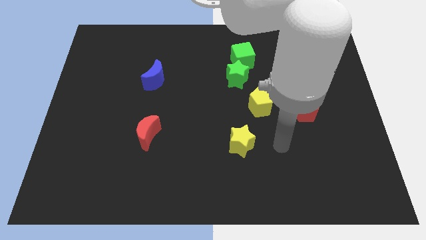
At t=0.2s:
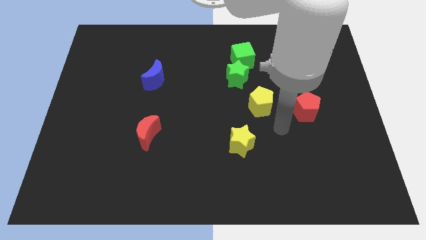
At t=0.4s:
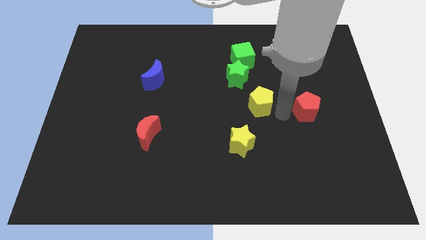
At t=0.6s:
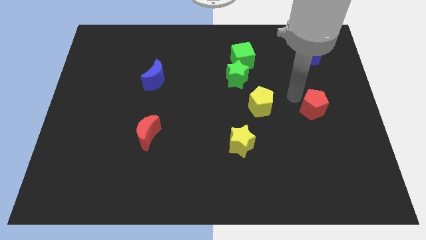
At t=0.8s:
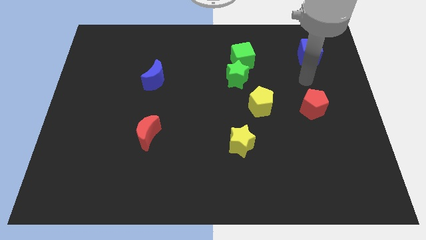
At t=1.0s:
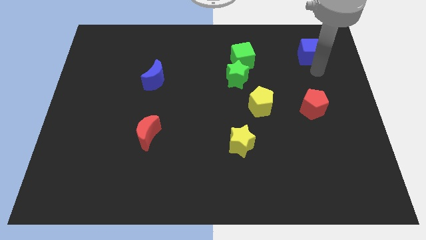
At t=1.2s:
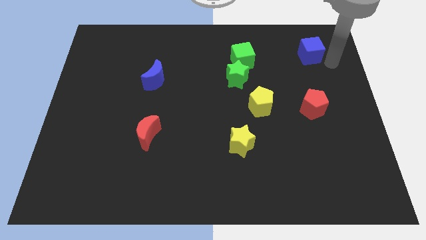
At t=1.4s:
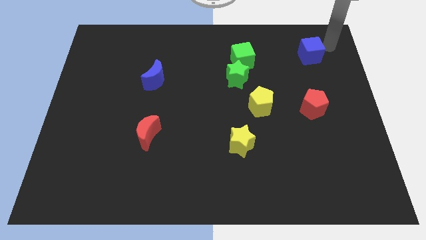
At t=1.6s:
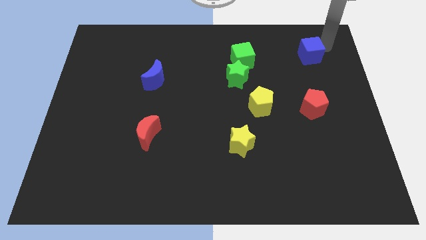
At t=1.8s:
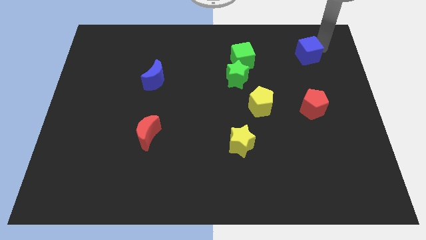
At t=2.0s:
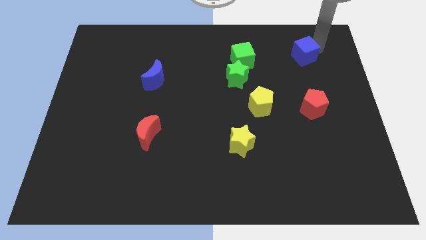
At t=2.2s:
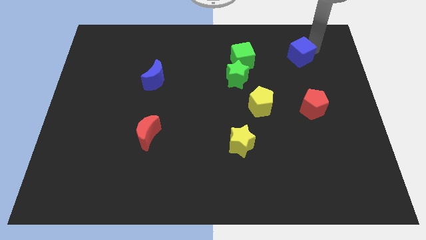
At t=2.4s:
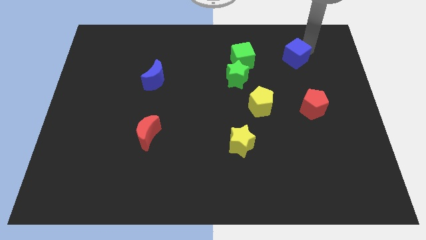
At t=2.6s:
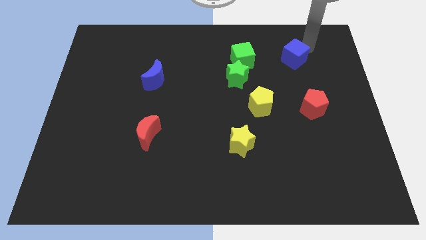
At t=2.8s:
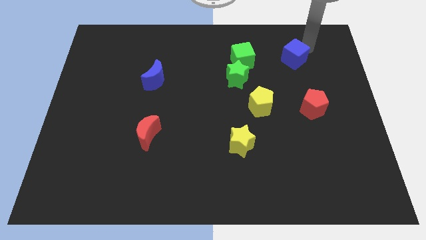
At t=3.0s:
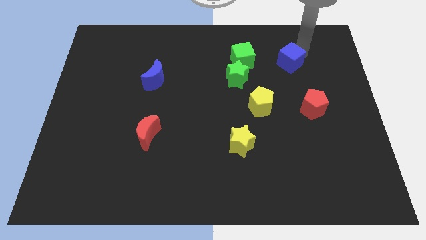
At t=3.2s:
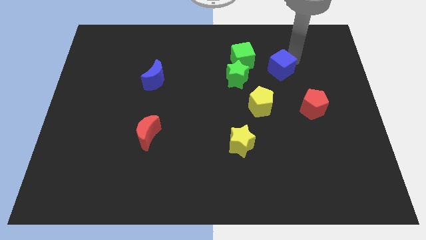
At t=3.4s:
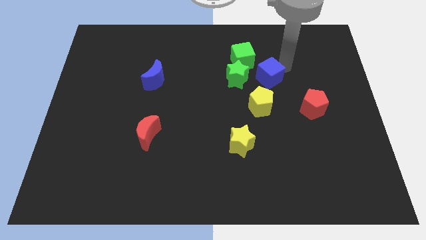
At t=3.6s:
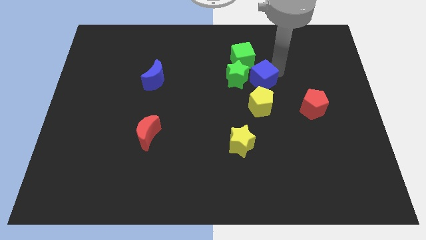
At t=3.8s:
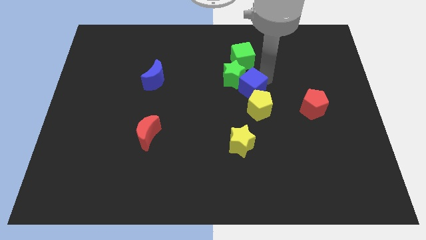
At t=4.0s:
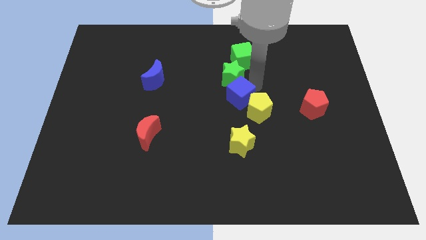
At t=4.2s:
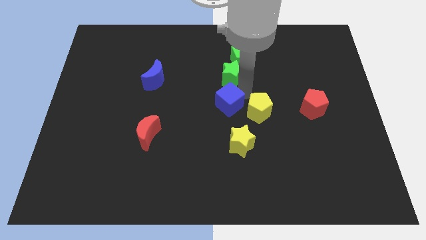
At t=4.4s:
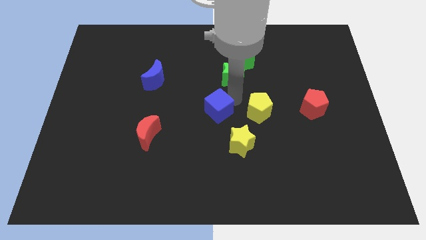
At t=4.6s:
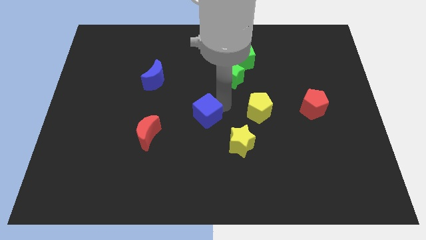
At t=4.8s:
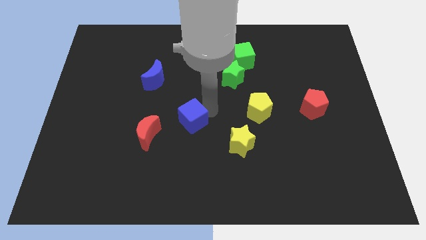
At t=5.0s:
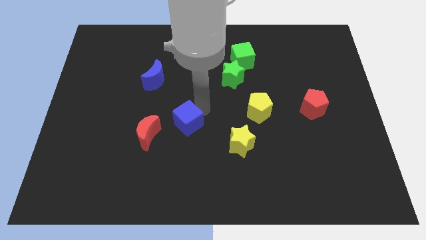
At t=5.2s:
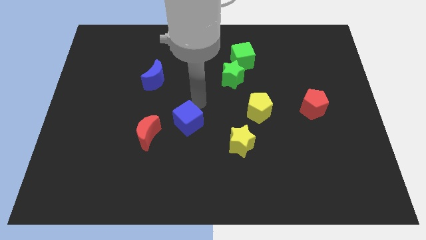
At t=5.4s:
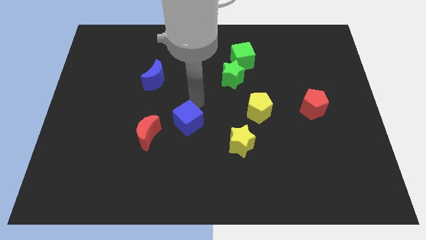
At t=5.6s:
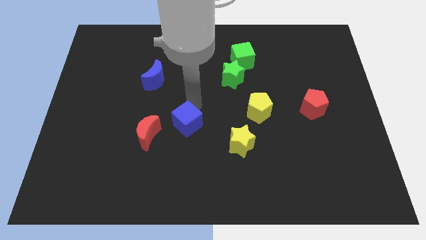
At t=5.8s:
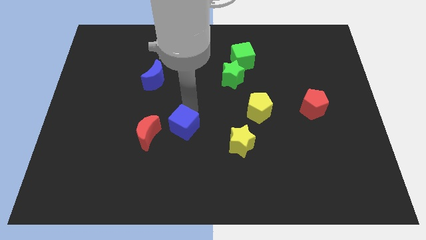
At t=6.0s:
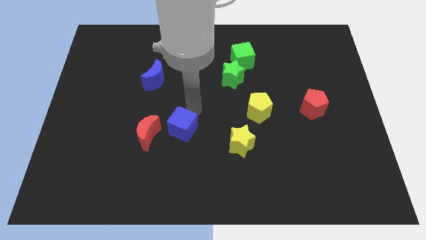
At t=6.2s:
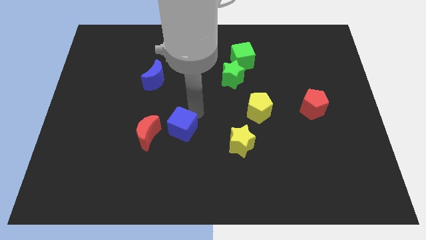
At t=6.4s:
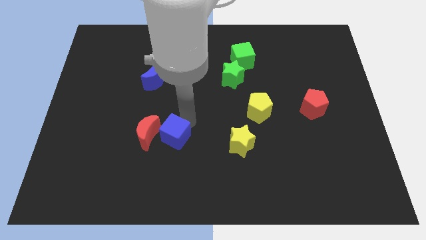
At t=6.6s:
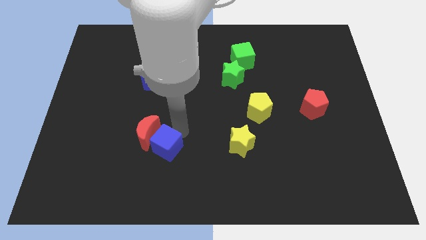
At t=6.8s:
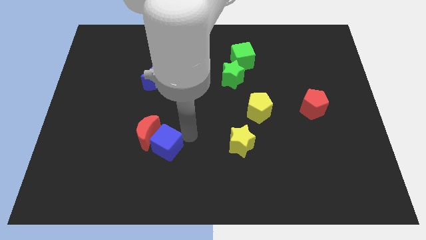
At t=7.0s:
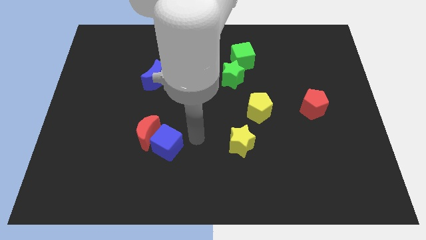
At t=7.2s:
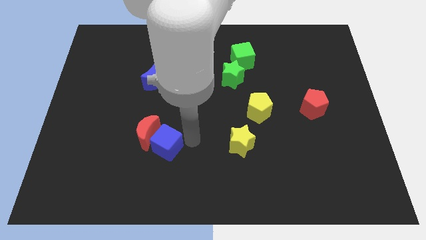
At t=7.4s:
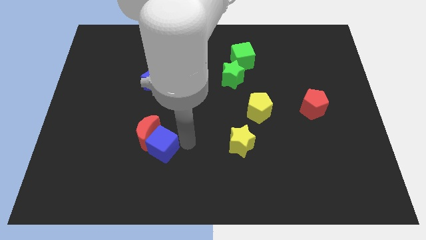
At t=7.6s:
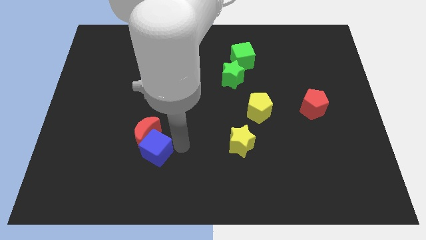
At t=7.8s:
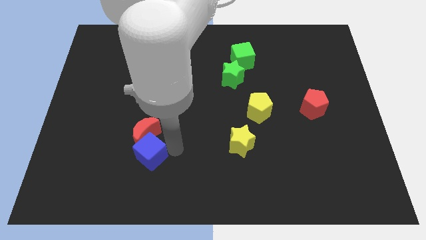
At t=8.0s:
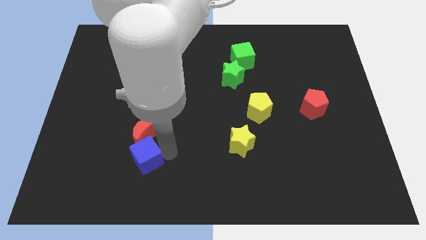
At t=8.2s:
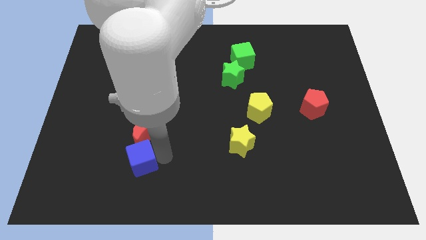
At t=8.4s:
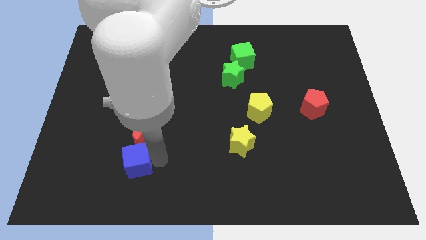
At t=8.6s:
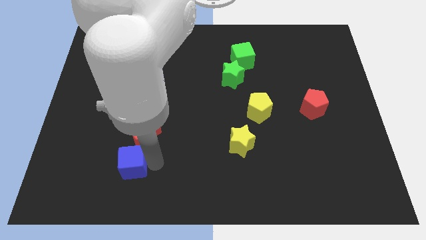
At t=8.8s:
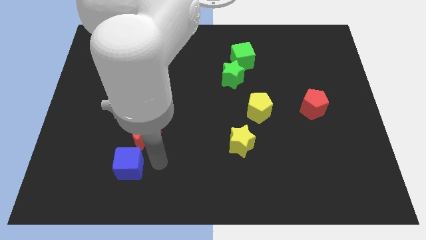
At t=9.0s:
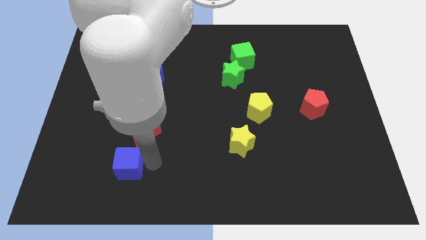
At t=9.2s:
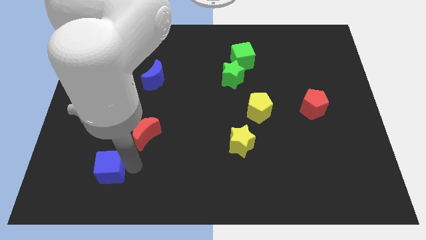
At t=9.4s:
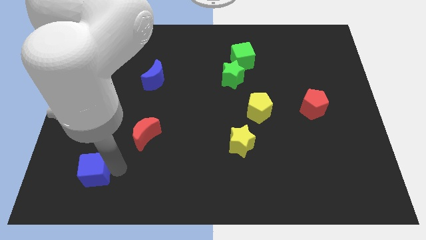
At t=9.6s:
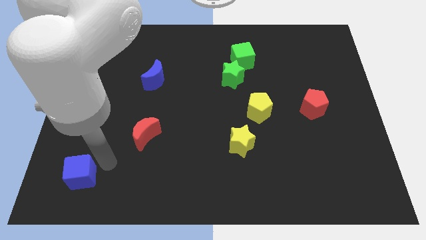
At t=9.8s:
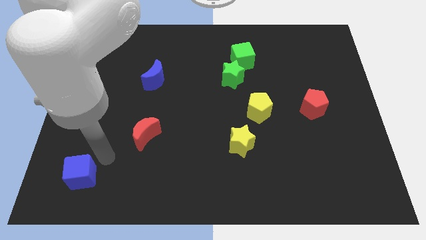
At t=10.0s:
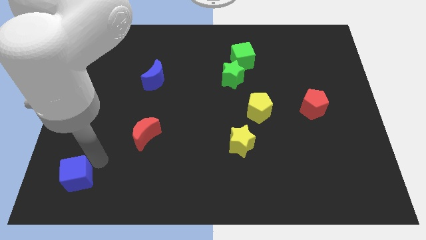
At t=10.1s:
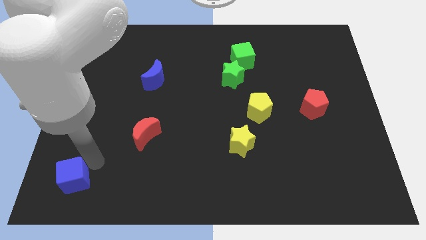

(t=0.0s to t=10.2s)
slide the blue cube to the bottom left corner

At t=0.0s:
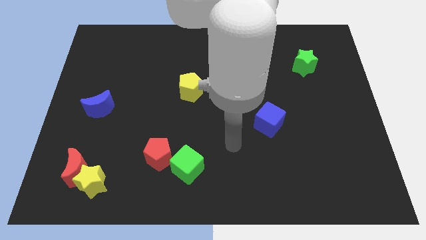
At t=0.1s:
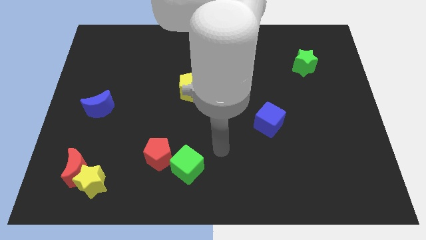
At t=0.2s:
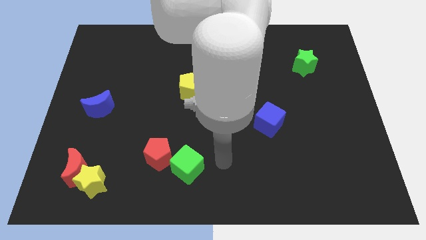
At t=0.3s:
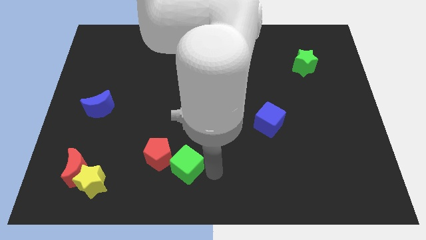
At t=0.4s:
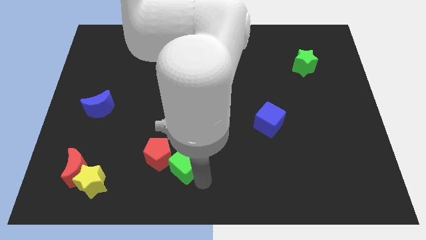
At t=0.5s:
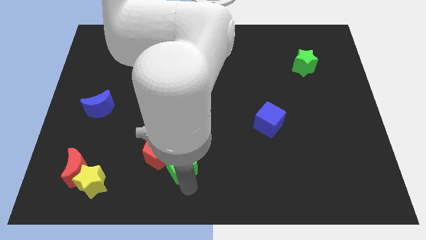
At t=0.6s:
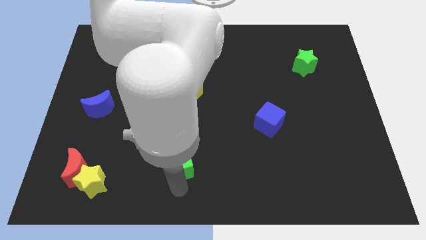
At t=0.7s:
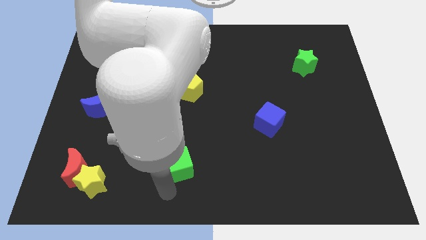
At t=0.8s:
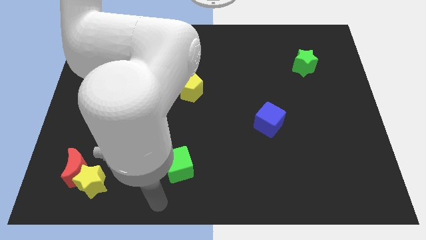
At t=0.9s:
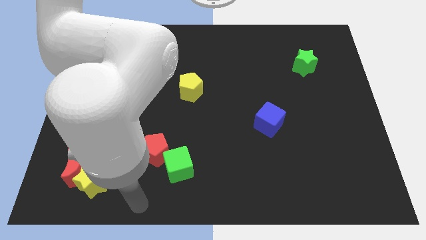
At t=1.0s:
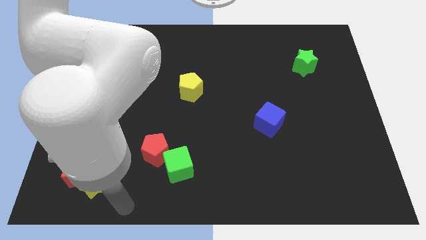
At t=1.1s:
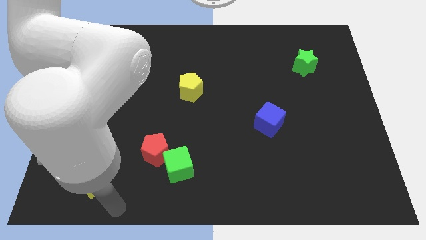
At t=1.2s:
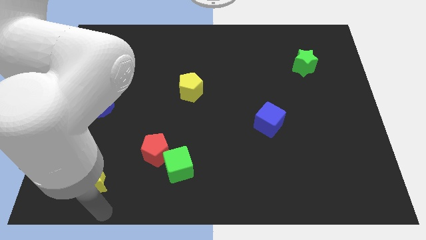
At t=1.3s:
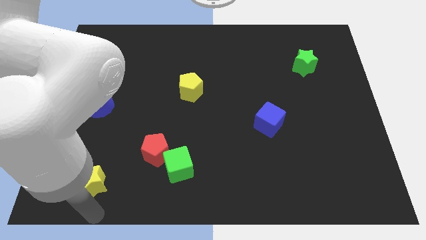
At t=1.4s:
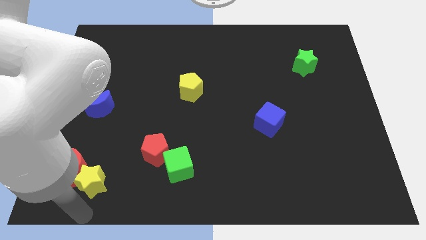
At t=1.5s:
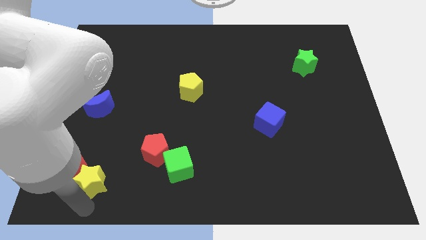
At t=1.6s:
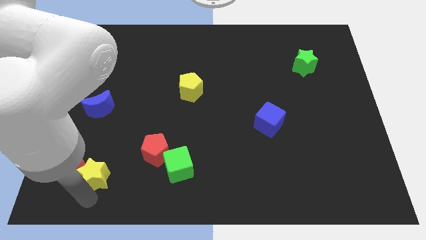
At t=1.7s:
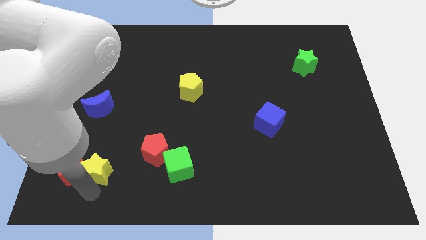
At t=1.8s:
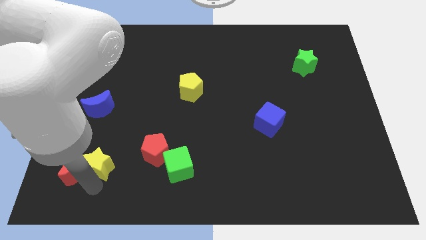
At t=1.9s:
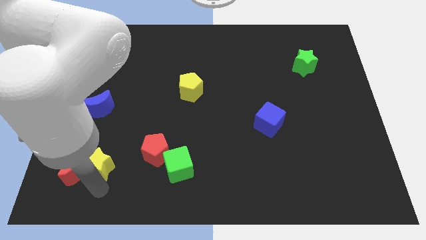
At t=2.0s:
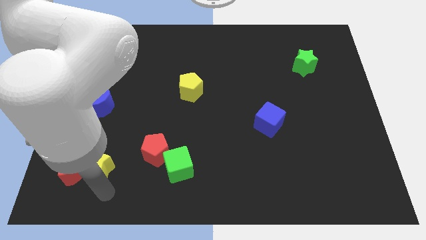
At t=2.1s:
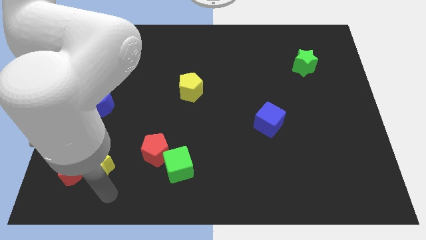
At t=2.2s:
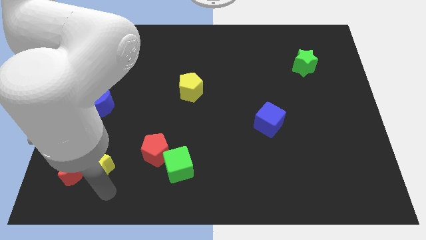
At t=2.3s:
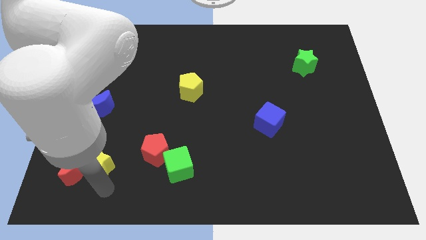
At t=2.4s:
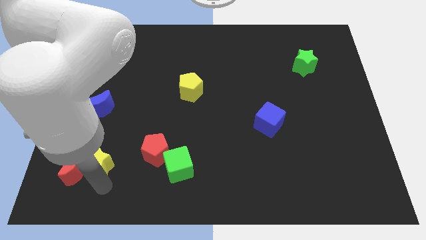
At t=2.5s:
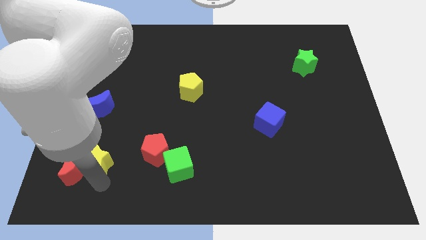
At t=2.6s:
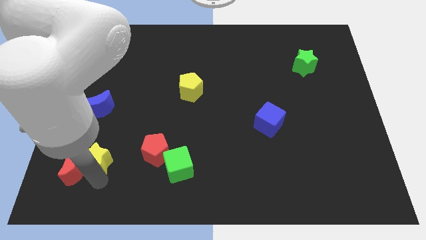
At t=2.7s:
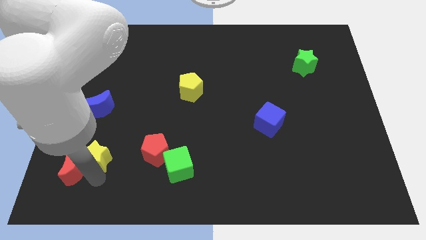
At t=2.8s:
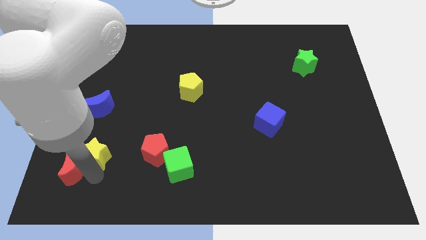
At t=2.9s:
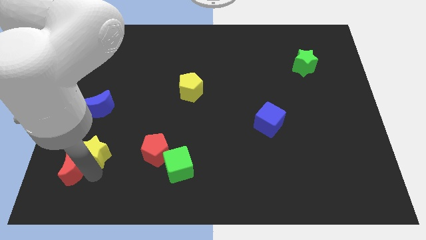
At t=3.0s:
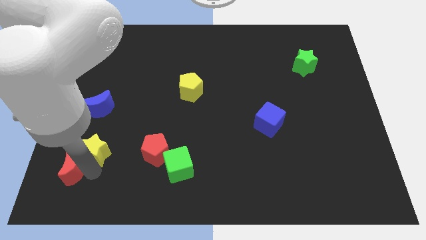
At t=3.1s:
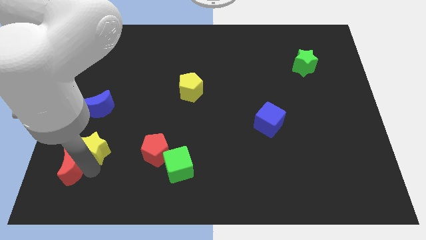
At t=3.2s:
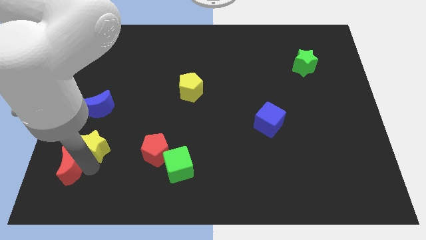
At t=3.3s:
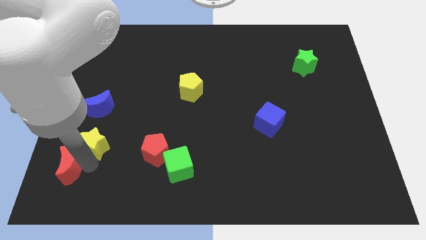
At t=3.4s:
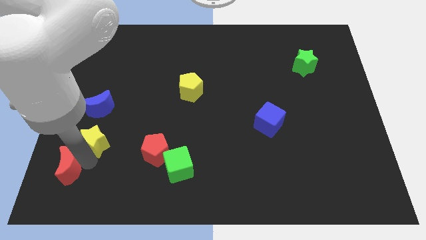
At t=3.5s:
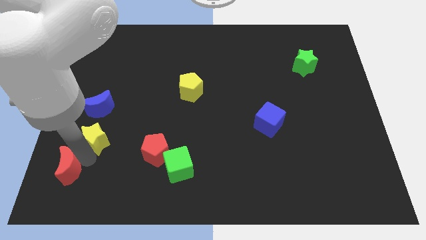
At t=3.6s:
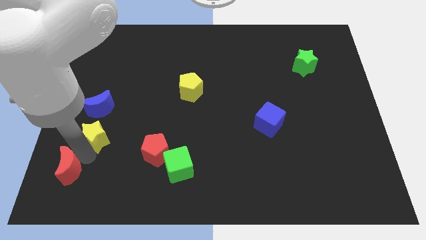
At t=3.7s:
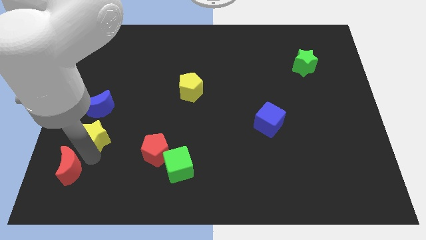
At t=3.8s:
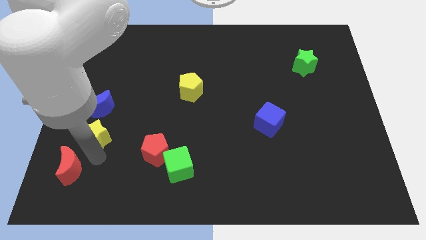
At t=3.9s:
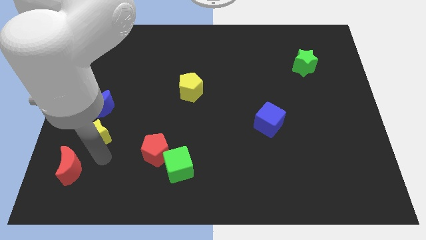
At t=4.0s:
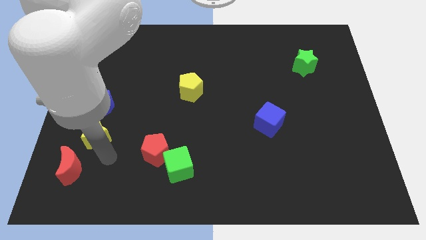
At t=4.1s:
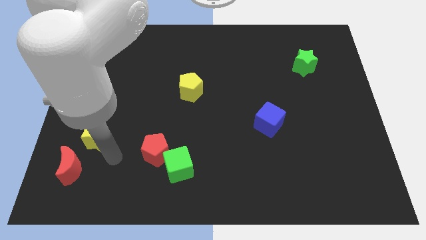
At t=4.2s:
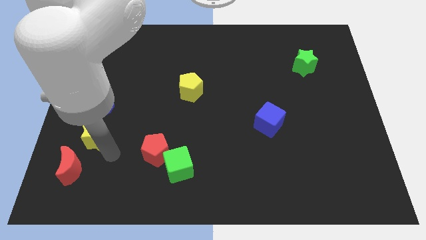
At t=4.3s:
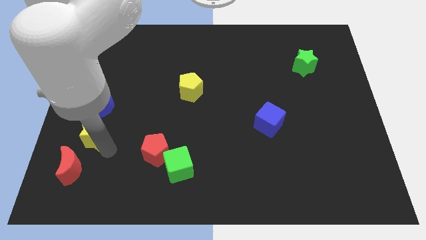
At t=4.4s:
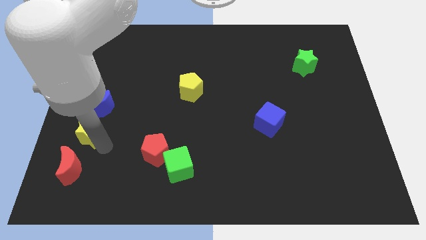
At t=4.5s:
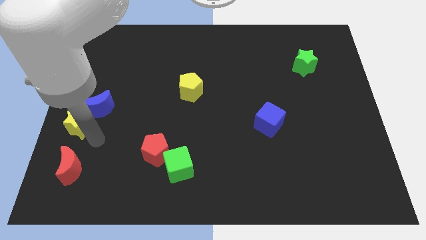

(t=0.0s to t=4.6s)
put the yellow star to the center left
